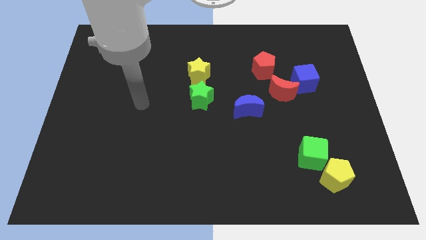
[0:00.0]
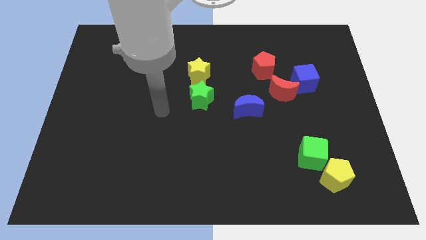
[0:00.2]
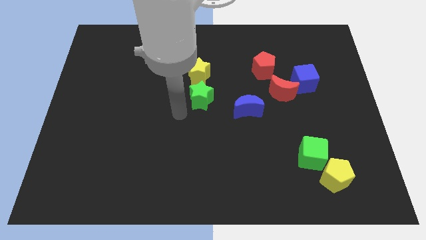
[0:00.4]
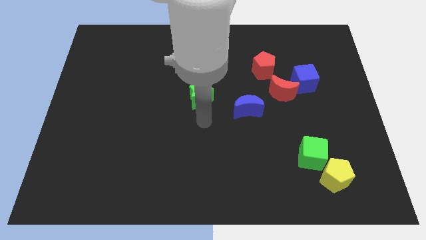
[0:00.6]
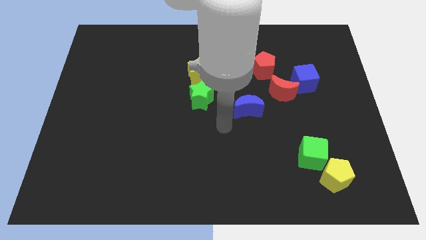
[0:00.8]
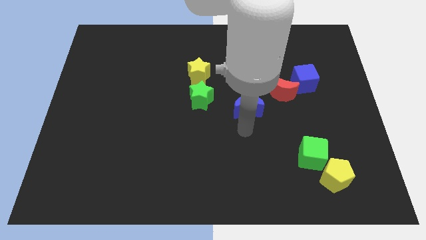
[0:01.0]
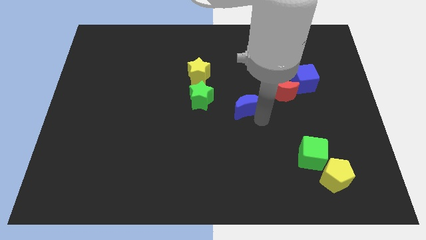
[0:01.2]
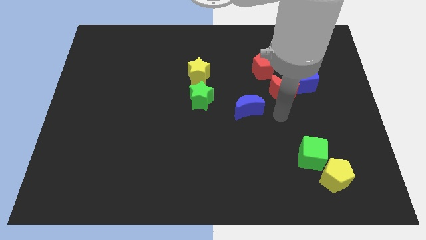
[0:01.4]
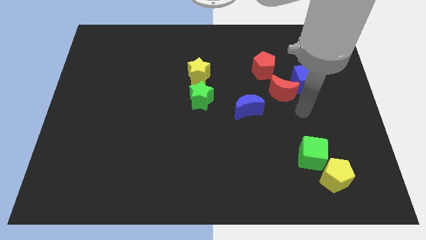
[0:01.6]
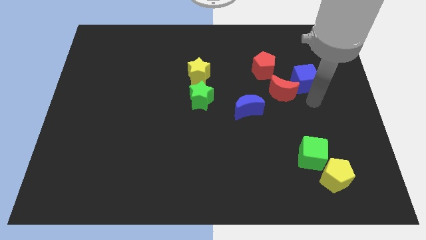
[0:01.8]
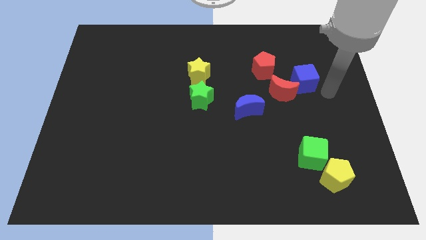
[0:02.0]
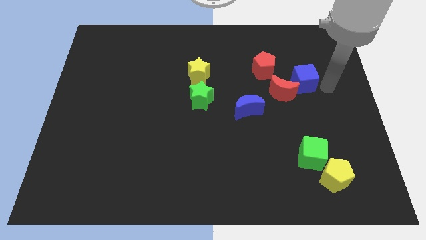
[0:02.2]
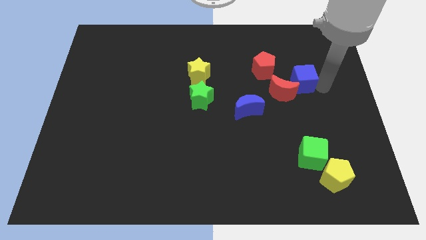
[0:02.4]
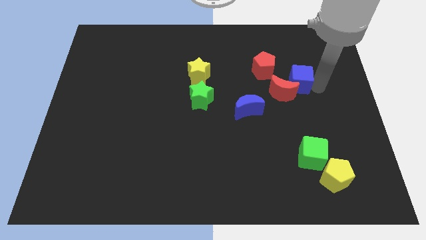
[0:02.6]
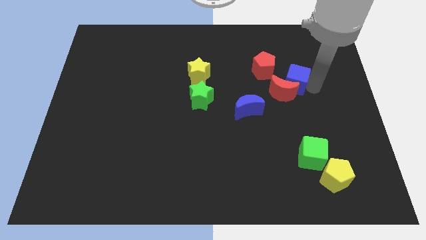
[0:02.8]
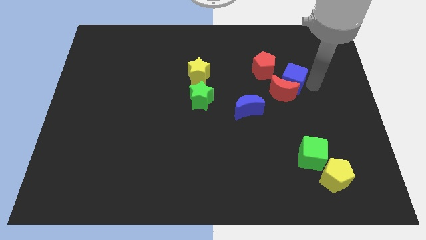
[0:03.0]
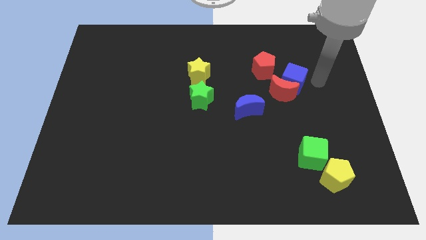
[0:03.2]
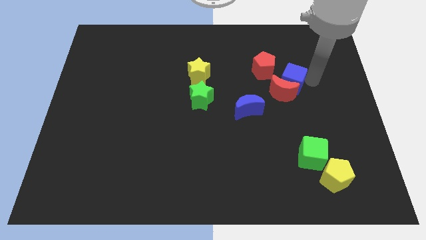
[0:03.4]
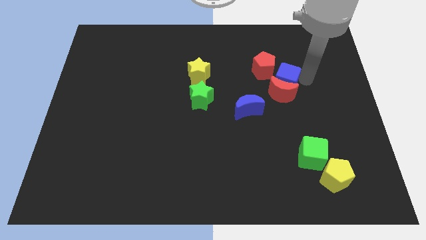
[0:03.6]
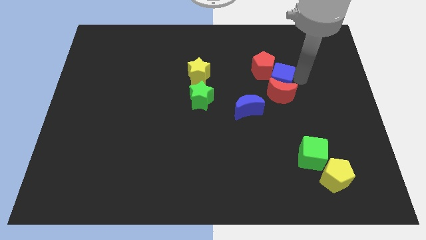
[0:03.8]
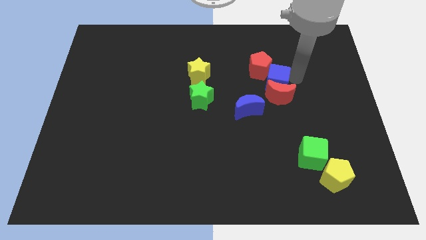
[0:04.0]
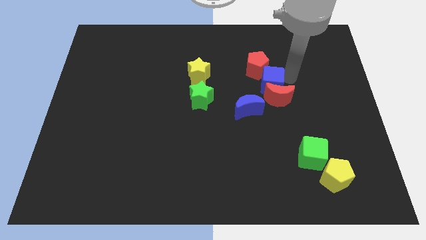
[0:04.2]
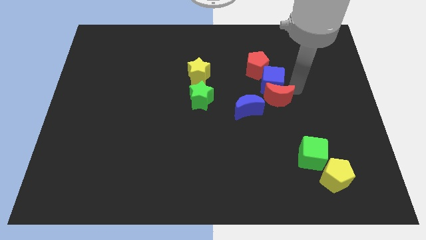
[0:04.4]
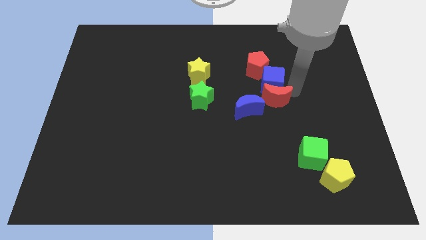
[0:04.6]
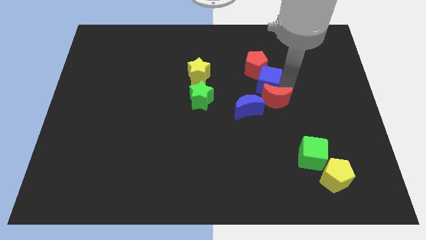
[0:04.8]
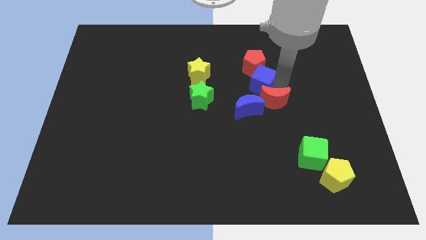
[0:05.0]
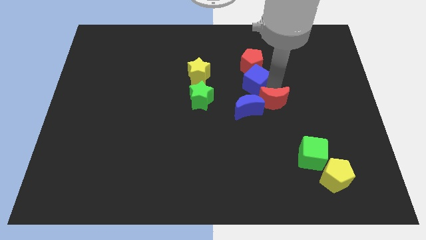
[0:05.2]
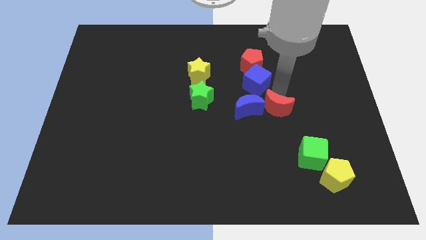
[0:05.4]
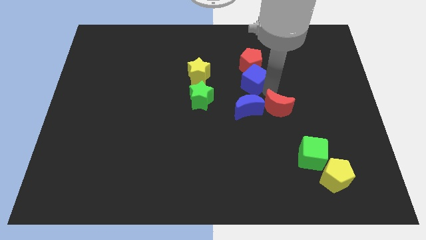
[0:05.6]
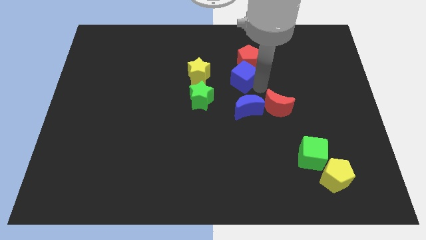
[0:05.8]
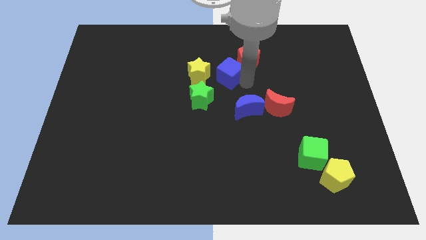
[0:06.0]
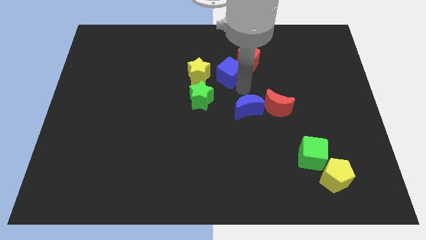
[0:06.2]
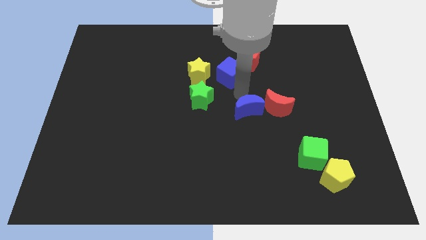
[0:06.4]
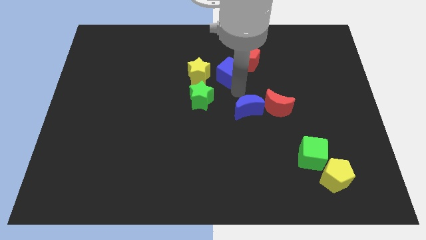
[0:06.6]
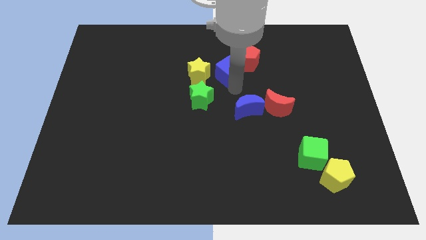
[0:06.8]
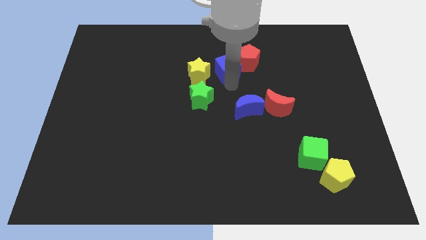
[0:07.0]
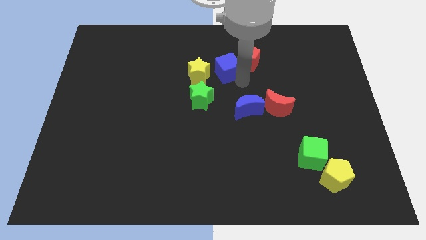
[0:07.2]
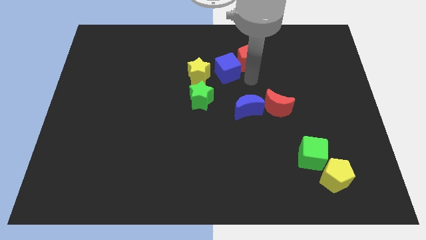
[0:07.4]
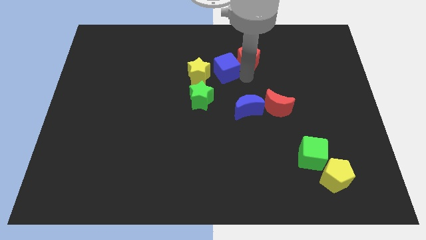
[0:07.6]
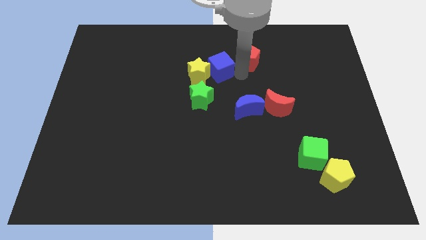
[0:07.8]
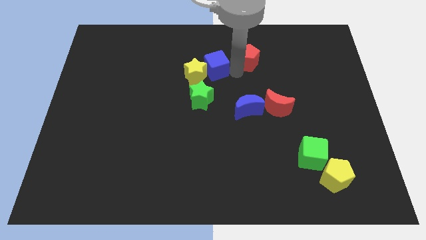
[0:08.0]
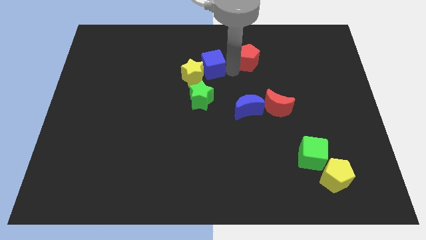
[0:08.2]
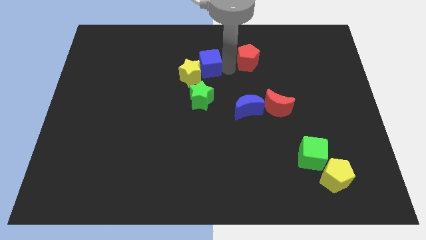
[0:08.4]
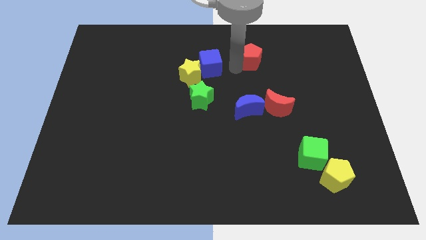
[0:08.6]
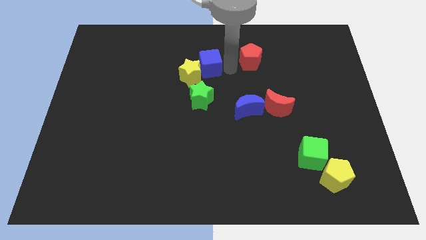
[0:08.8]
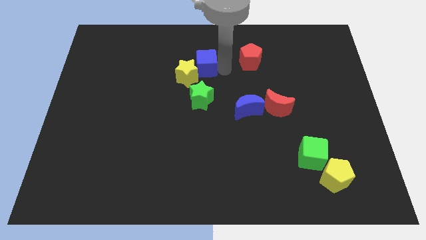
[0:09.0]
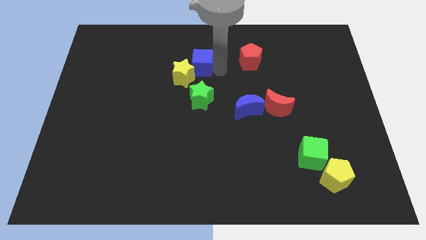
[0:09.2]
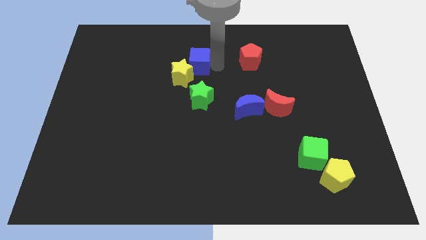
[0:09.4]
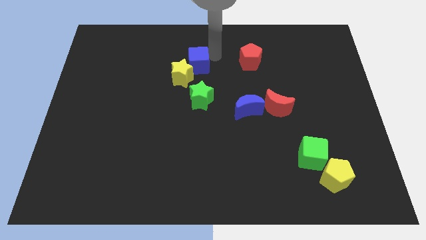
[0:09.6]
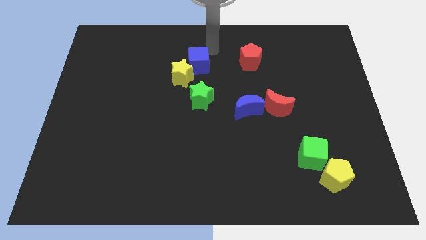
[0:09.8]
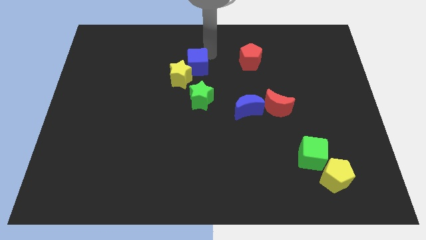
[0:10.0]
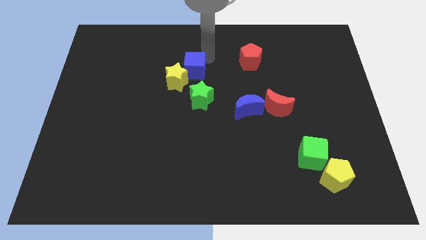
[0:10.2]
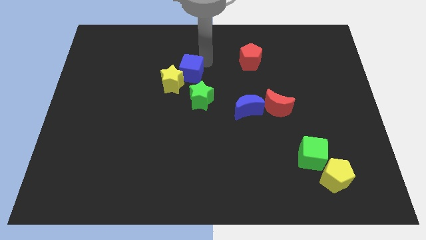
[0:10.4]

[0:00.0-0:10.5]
push the blue cube diagonally up and to the left of the green star

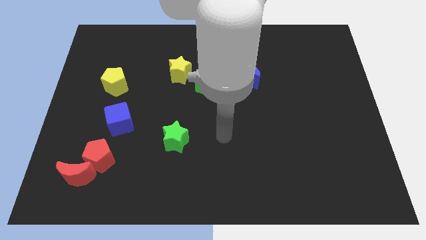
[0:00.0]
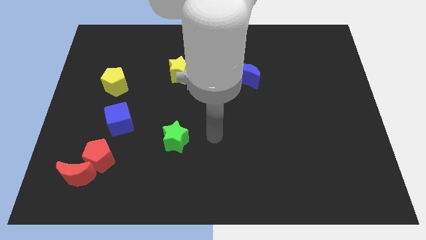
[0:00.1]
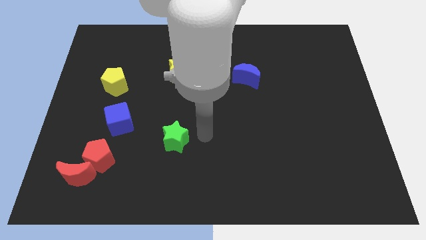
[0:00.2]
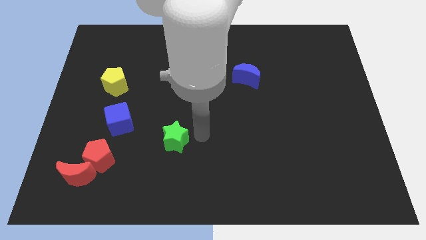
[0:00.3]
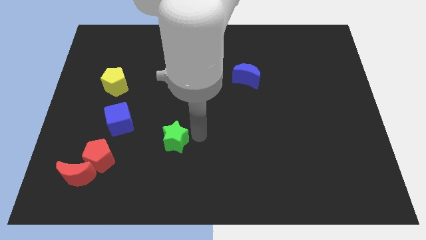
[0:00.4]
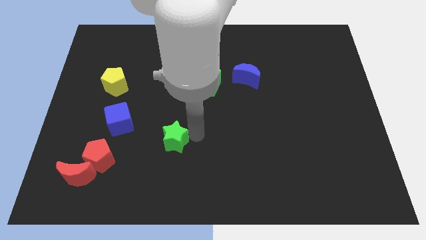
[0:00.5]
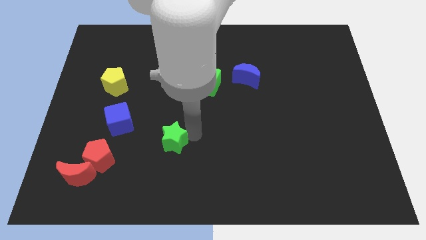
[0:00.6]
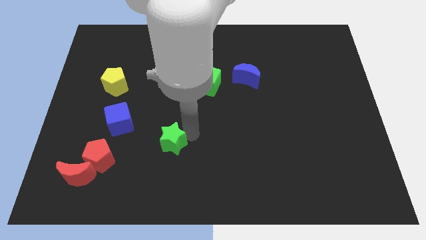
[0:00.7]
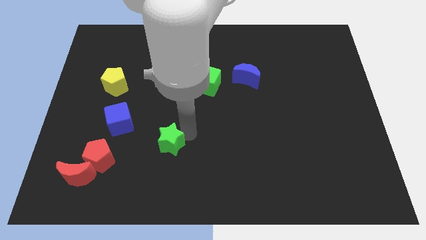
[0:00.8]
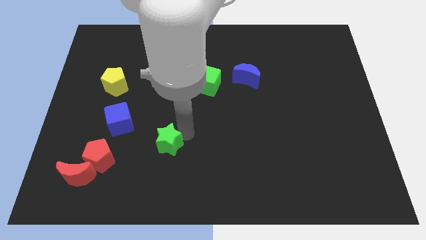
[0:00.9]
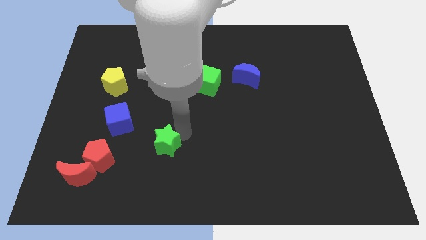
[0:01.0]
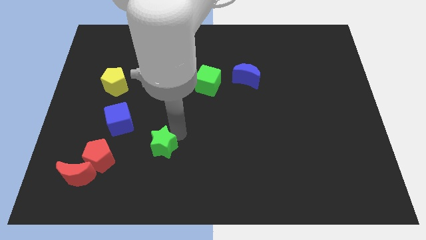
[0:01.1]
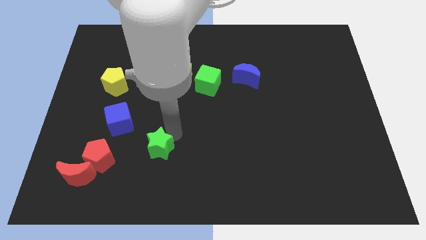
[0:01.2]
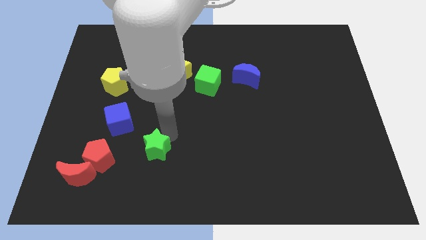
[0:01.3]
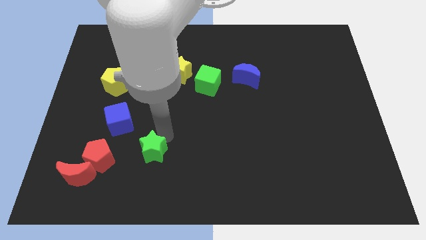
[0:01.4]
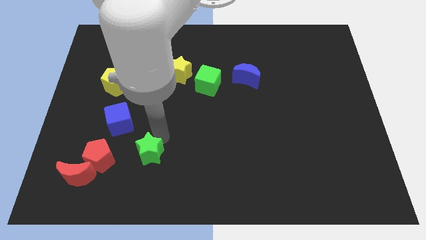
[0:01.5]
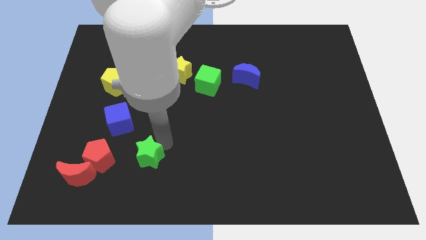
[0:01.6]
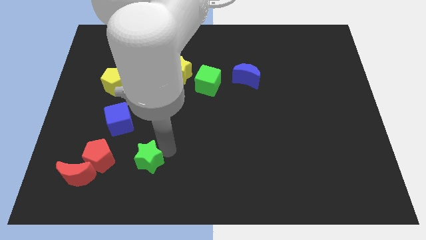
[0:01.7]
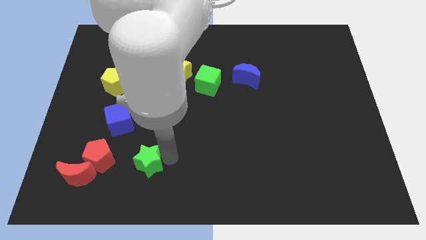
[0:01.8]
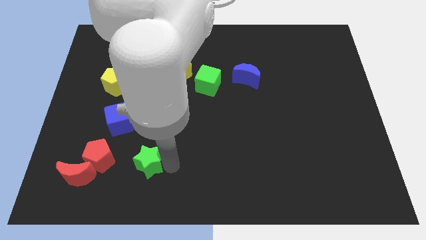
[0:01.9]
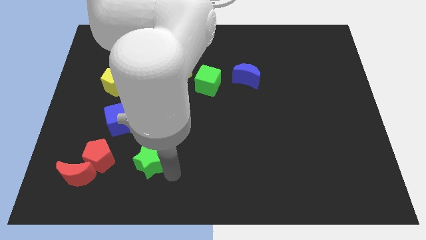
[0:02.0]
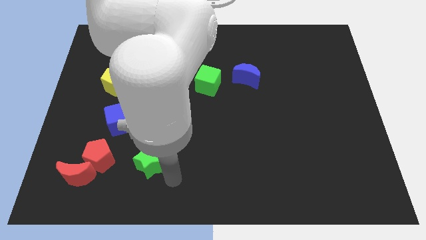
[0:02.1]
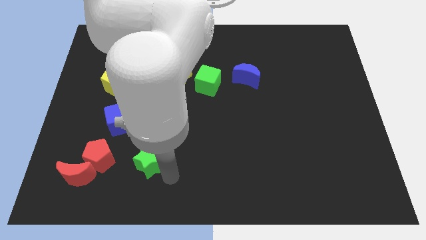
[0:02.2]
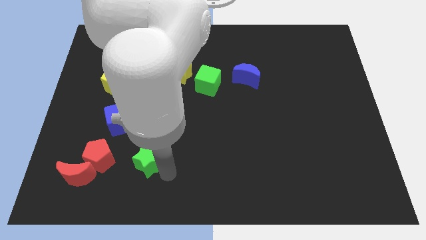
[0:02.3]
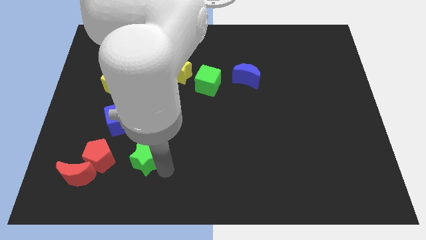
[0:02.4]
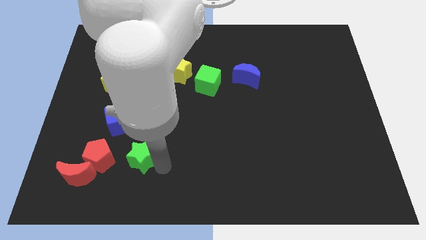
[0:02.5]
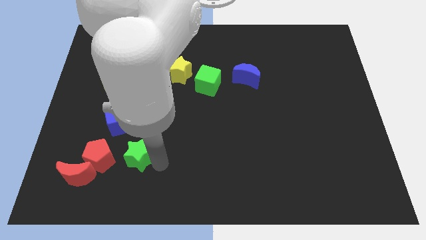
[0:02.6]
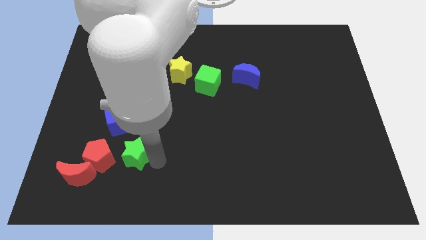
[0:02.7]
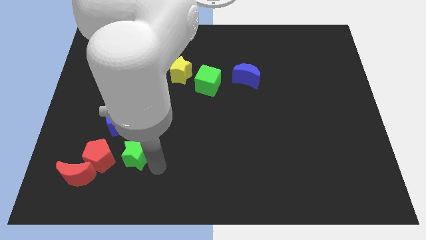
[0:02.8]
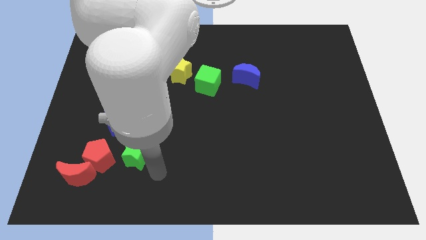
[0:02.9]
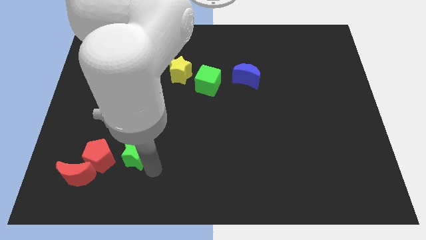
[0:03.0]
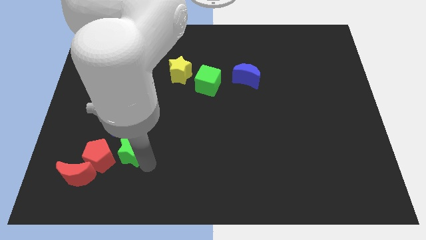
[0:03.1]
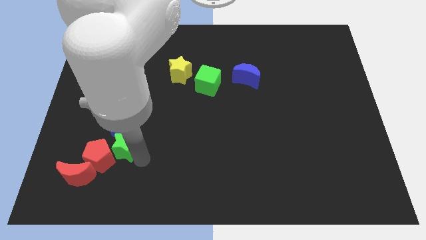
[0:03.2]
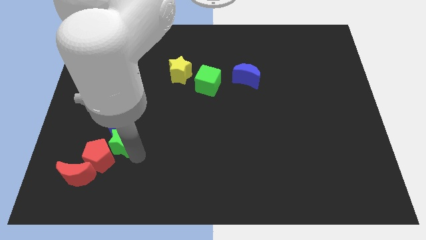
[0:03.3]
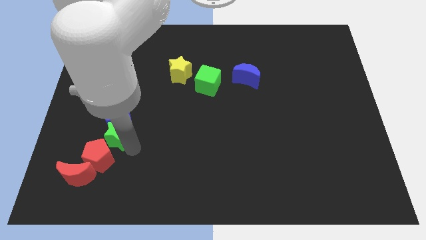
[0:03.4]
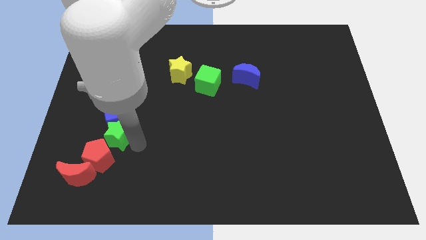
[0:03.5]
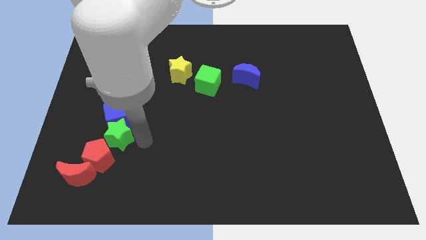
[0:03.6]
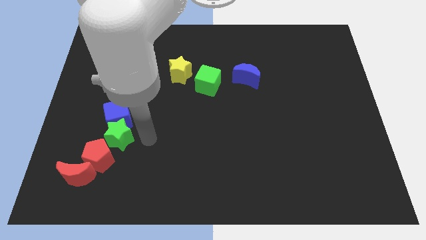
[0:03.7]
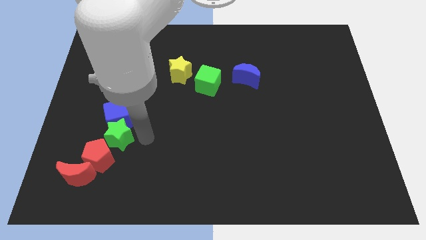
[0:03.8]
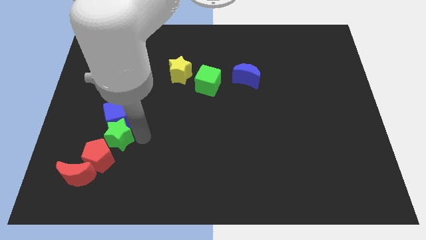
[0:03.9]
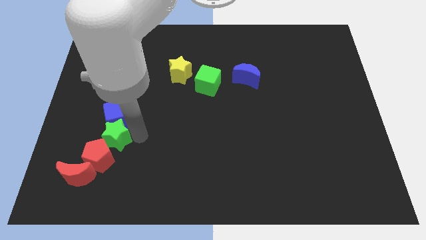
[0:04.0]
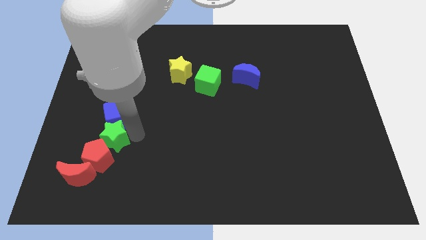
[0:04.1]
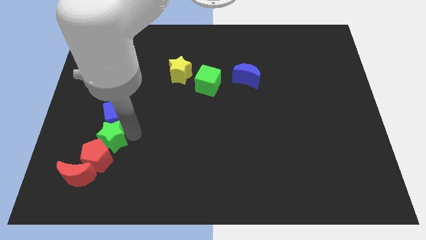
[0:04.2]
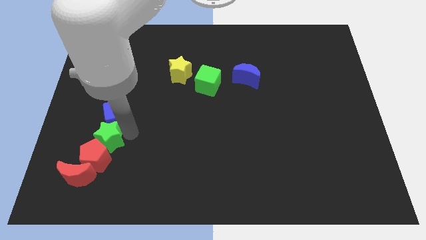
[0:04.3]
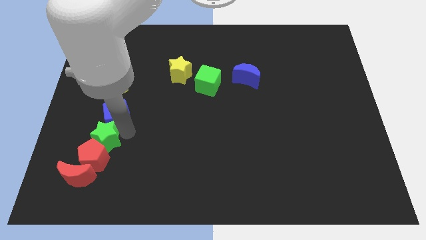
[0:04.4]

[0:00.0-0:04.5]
slide the green star to the top side of the red moon
